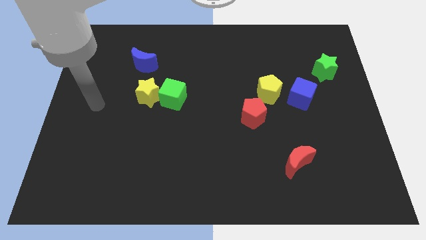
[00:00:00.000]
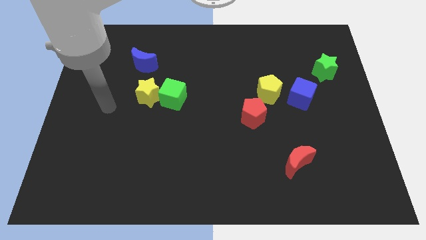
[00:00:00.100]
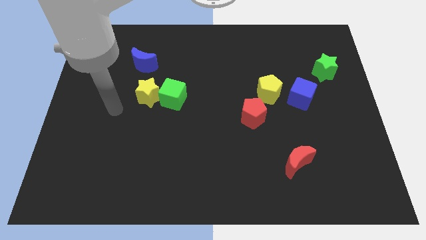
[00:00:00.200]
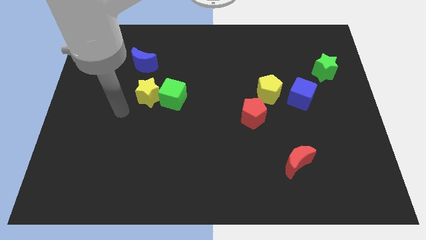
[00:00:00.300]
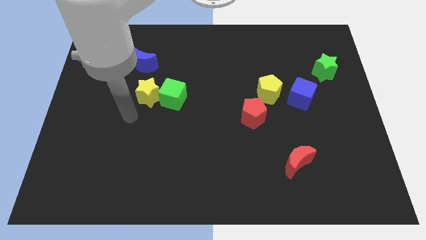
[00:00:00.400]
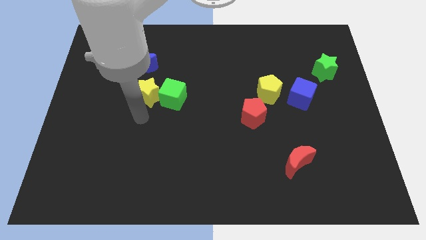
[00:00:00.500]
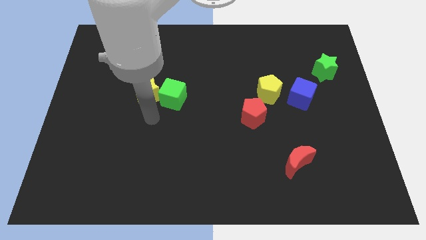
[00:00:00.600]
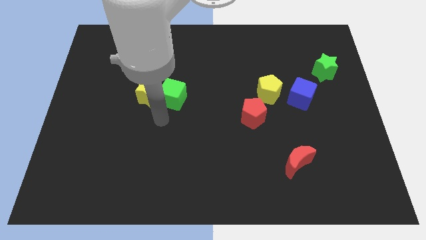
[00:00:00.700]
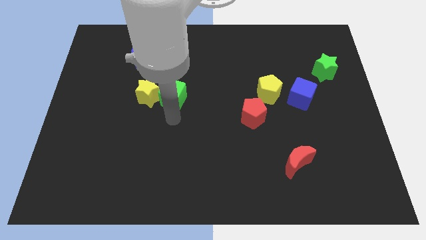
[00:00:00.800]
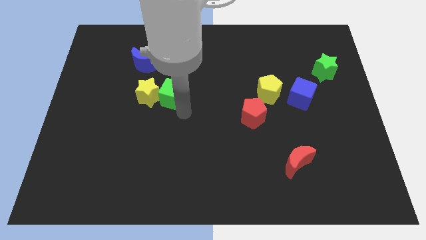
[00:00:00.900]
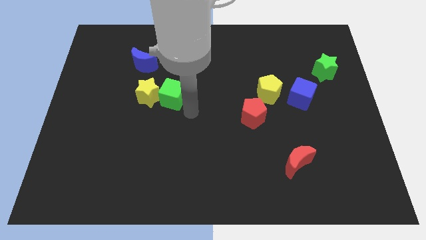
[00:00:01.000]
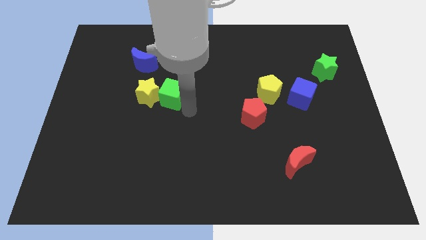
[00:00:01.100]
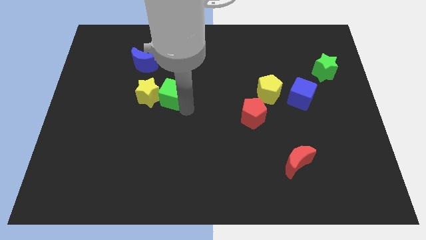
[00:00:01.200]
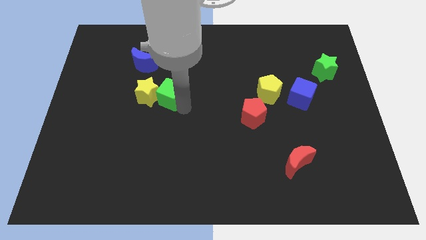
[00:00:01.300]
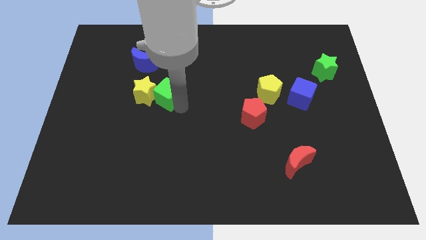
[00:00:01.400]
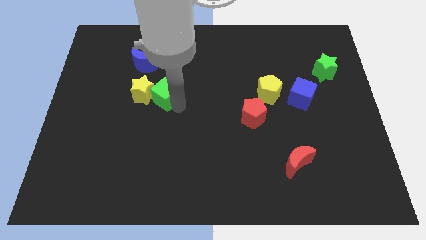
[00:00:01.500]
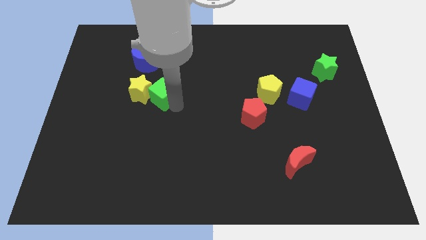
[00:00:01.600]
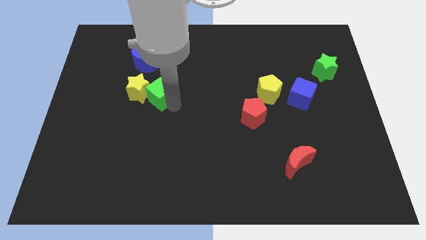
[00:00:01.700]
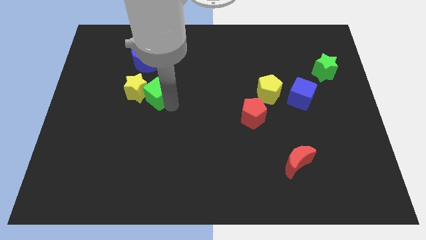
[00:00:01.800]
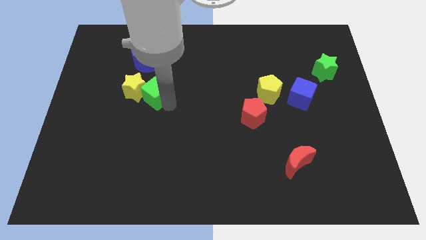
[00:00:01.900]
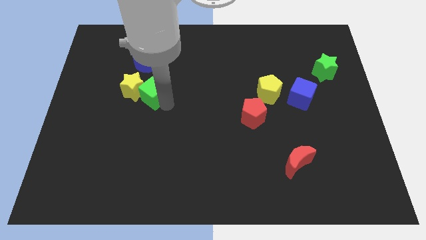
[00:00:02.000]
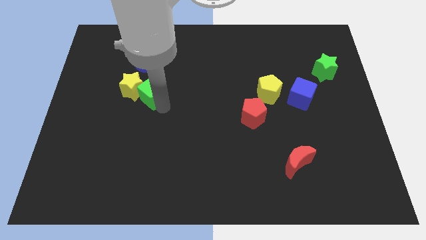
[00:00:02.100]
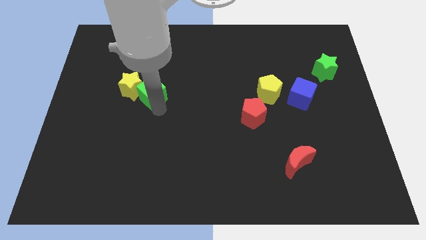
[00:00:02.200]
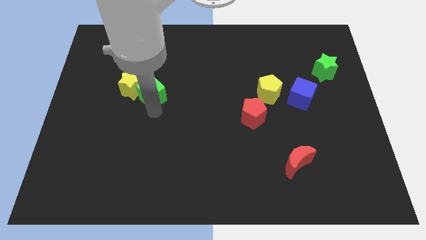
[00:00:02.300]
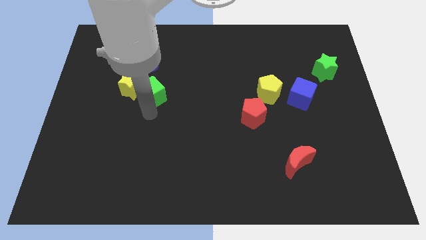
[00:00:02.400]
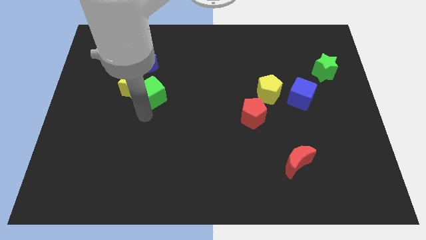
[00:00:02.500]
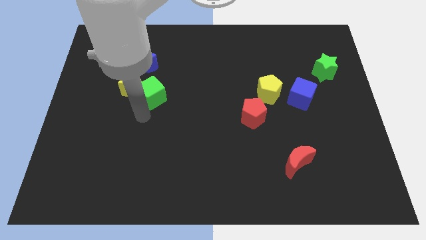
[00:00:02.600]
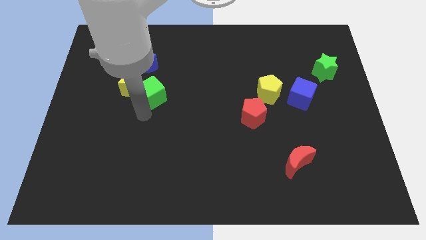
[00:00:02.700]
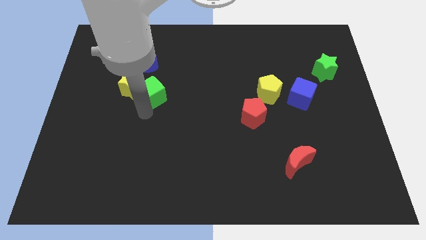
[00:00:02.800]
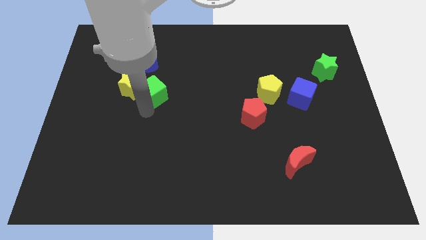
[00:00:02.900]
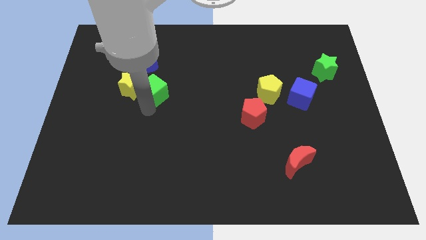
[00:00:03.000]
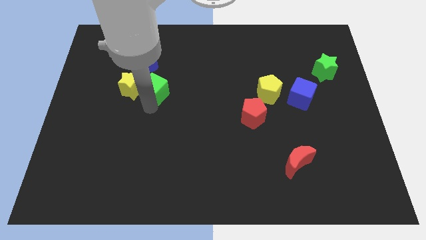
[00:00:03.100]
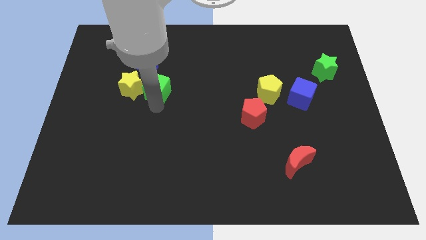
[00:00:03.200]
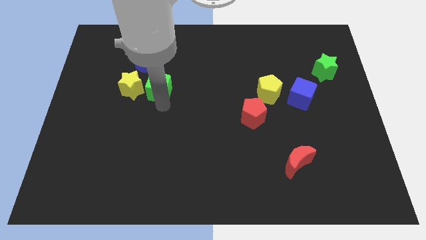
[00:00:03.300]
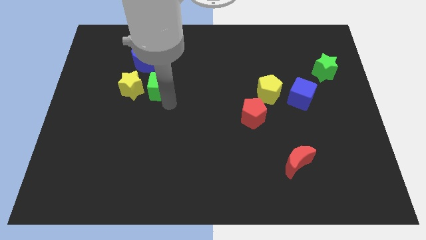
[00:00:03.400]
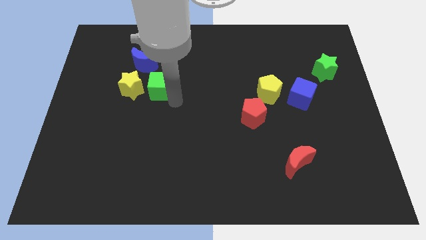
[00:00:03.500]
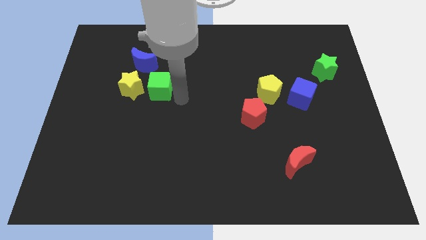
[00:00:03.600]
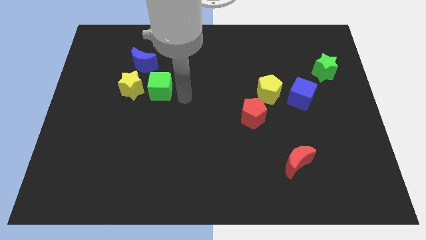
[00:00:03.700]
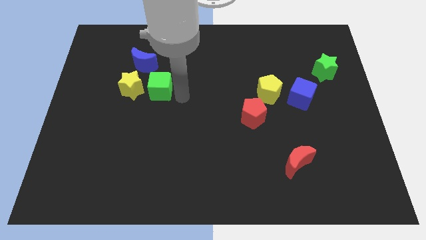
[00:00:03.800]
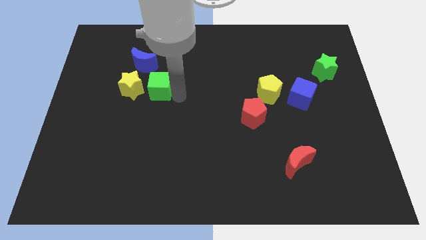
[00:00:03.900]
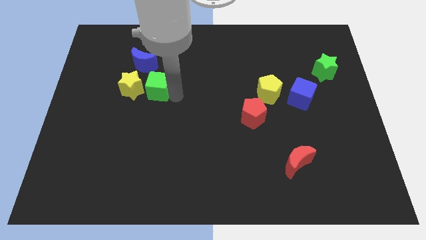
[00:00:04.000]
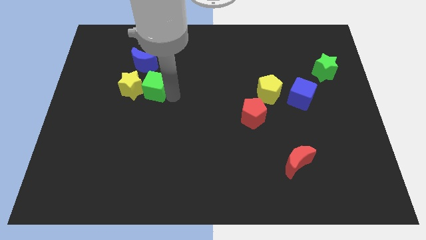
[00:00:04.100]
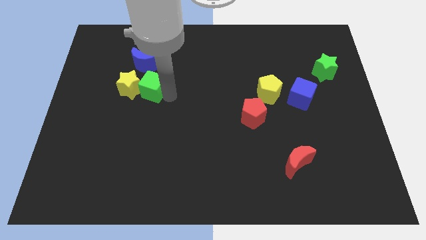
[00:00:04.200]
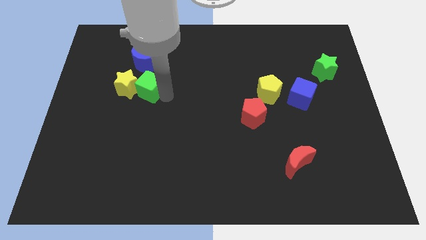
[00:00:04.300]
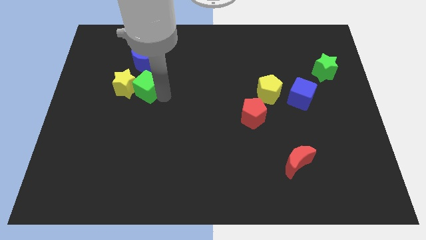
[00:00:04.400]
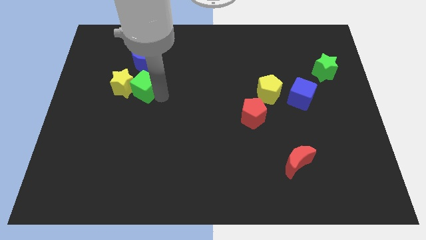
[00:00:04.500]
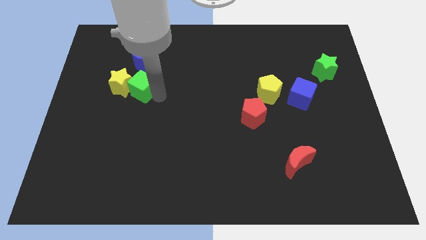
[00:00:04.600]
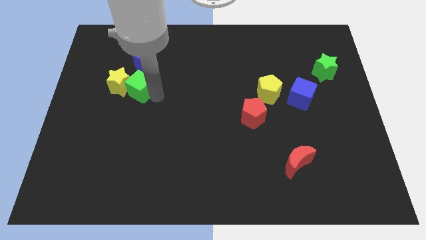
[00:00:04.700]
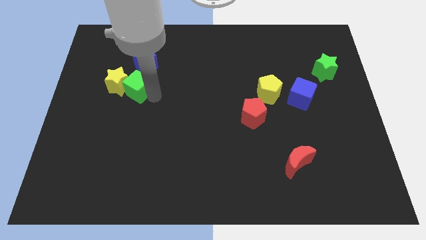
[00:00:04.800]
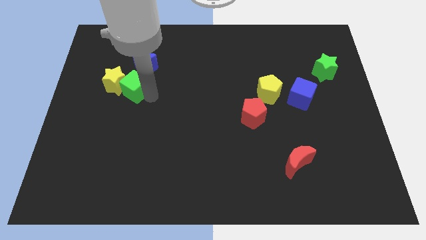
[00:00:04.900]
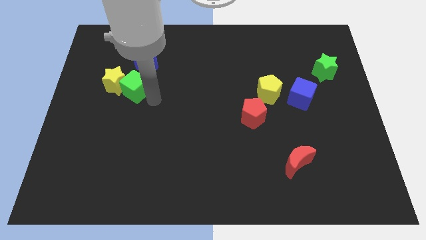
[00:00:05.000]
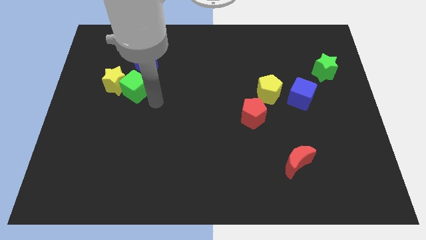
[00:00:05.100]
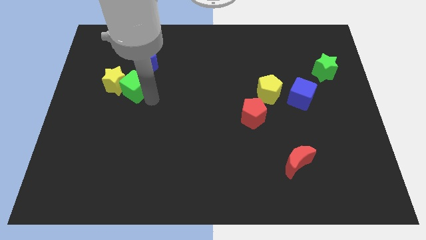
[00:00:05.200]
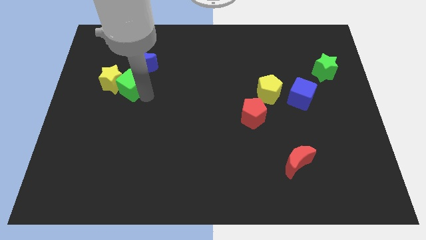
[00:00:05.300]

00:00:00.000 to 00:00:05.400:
push the green cube to the bottom left side of the blue moon

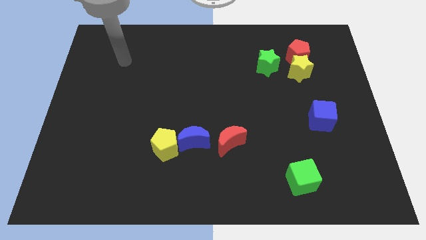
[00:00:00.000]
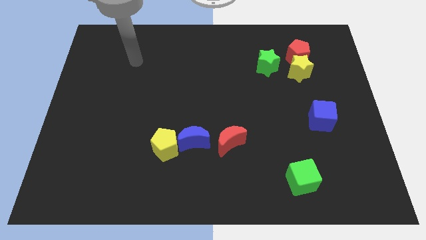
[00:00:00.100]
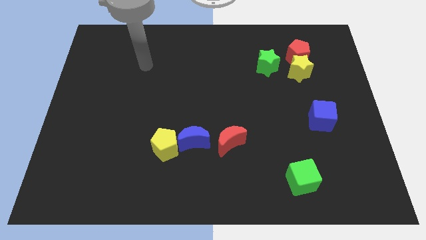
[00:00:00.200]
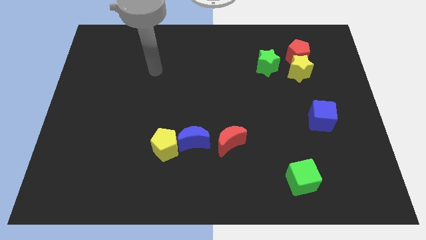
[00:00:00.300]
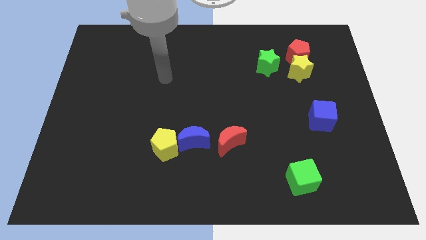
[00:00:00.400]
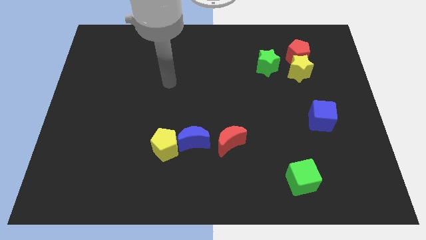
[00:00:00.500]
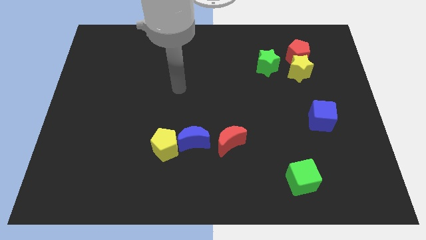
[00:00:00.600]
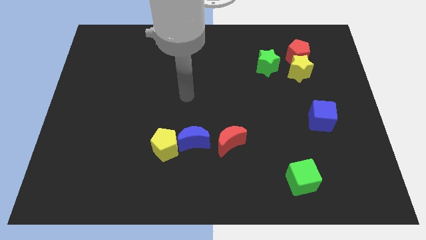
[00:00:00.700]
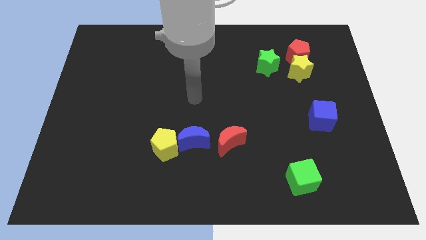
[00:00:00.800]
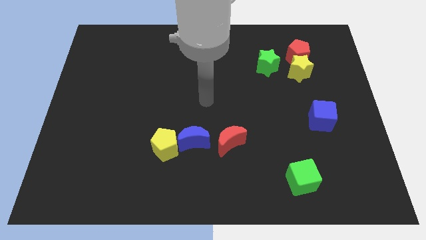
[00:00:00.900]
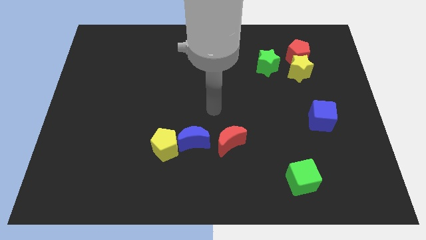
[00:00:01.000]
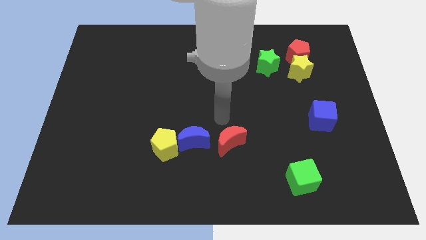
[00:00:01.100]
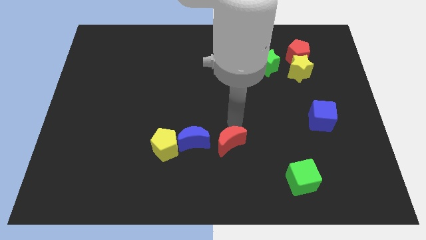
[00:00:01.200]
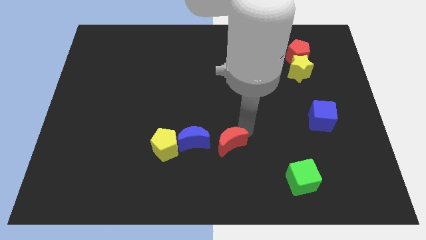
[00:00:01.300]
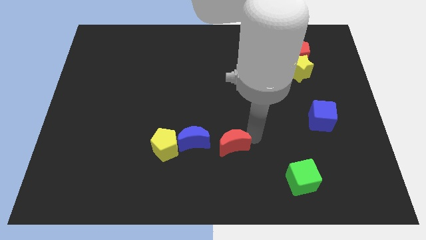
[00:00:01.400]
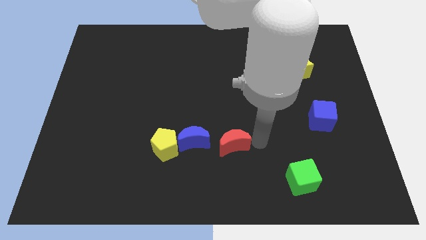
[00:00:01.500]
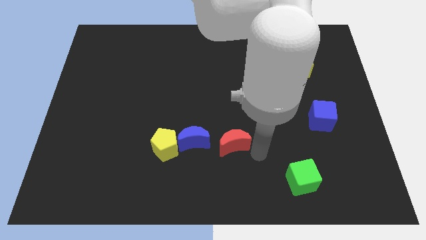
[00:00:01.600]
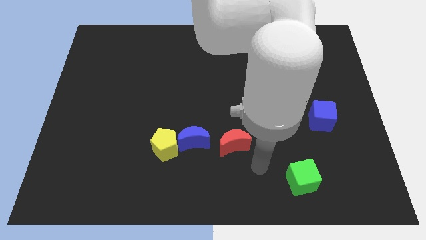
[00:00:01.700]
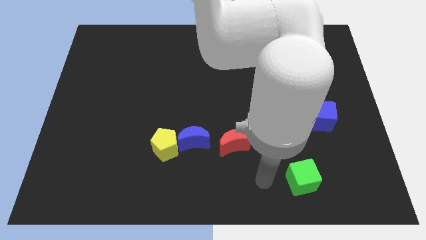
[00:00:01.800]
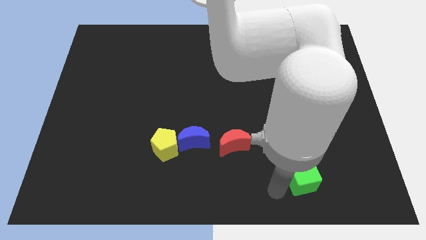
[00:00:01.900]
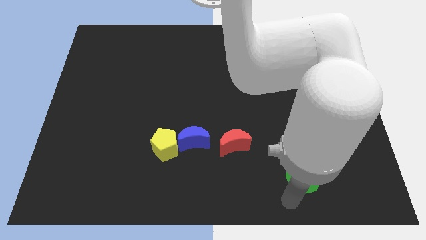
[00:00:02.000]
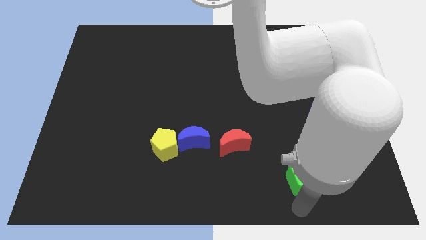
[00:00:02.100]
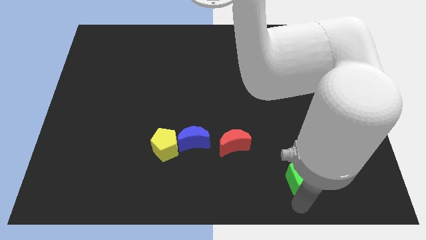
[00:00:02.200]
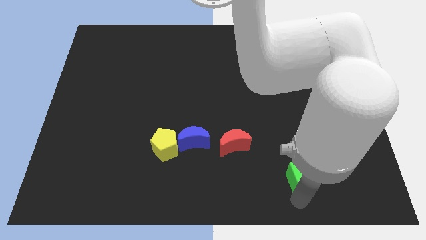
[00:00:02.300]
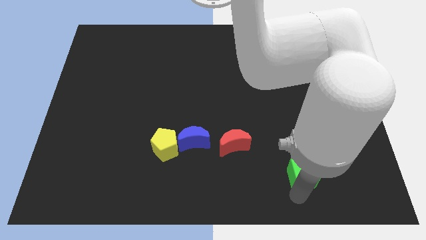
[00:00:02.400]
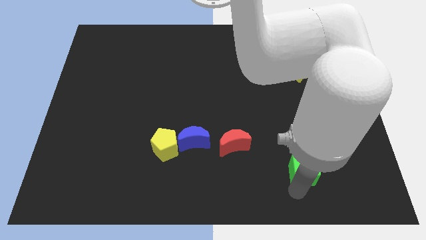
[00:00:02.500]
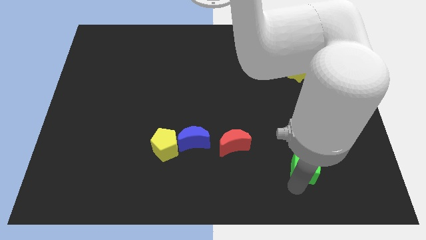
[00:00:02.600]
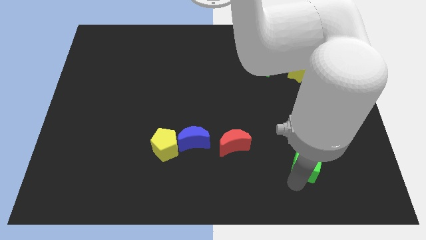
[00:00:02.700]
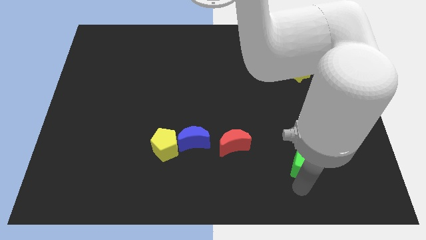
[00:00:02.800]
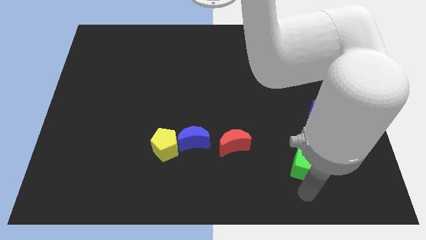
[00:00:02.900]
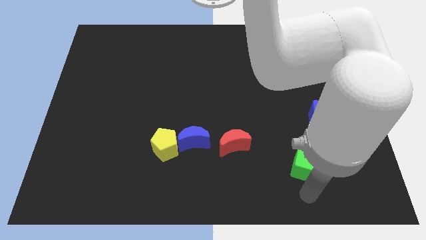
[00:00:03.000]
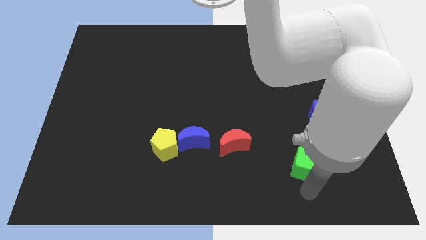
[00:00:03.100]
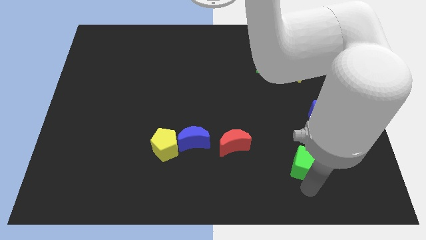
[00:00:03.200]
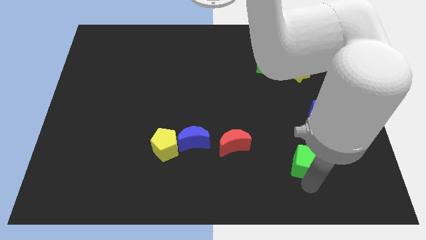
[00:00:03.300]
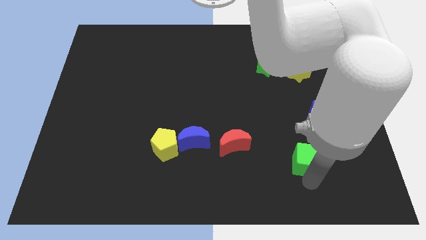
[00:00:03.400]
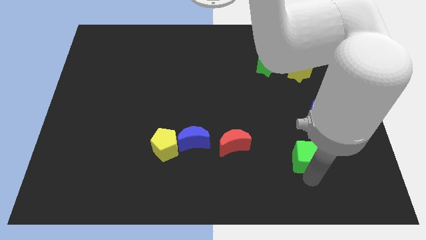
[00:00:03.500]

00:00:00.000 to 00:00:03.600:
slide the green cube to the bottom left of the blue cube
